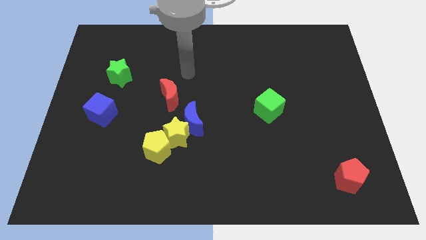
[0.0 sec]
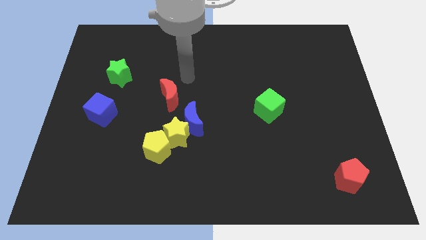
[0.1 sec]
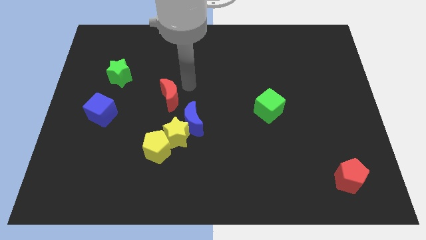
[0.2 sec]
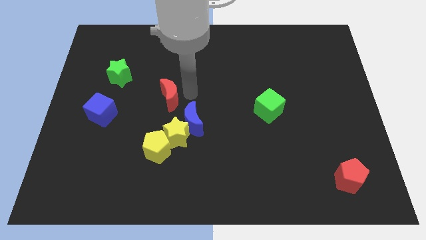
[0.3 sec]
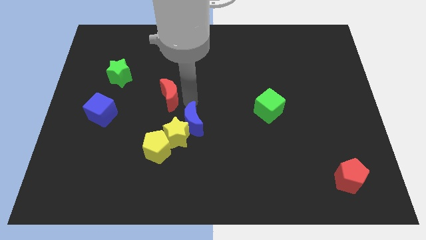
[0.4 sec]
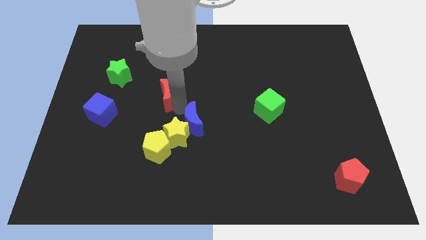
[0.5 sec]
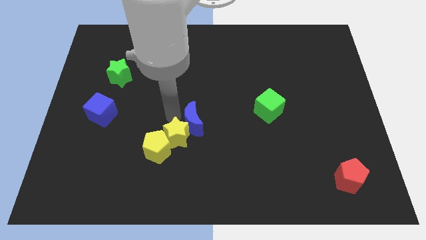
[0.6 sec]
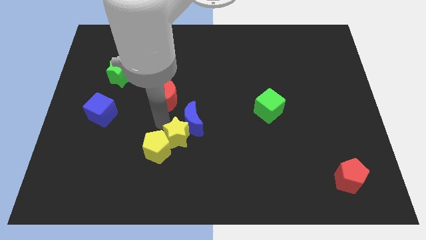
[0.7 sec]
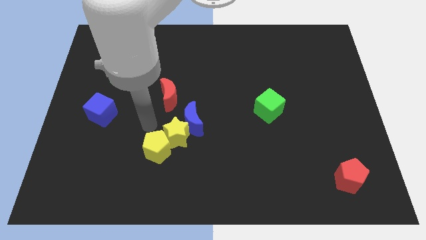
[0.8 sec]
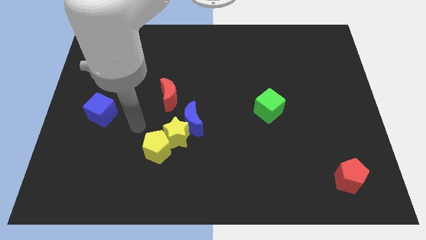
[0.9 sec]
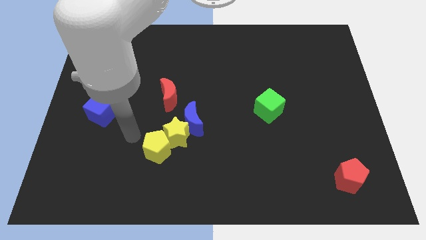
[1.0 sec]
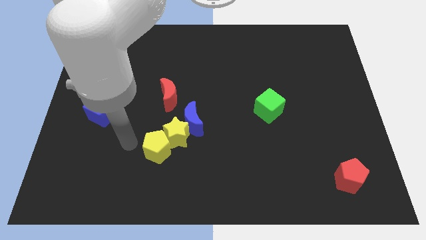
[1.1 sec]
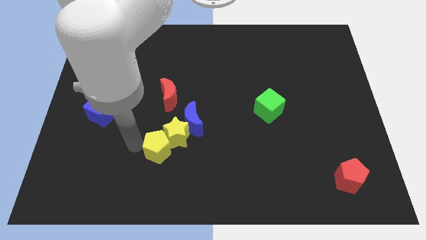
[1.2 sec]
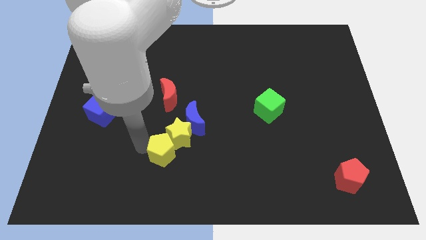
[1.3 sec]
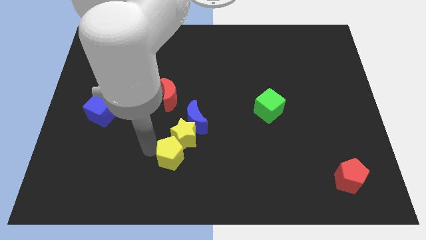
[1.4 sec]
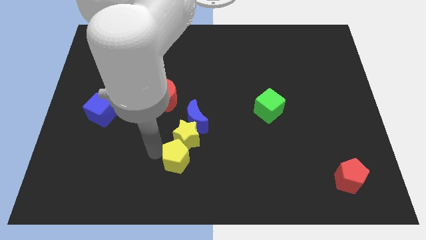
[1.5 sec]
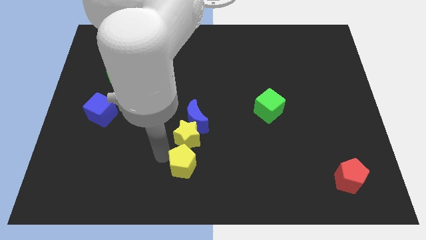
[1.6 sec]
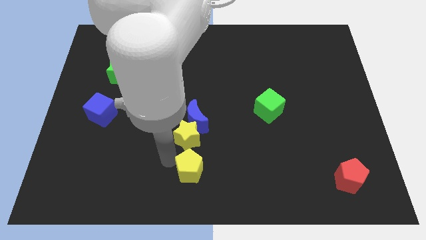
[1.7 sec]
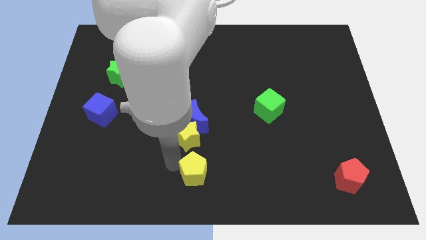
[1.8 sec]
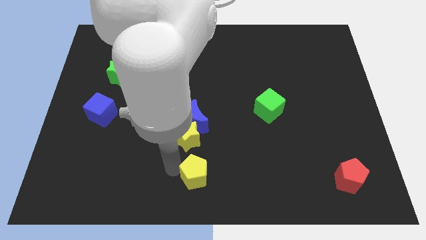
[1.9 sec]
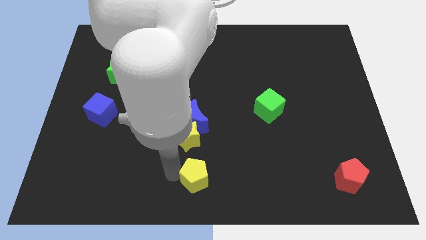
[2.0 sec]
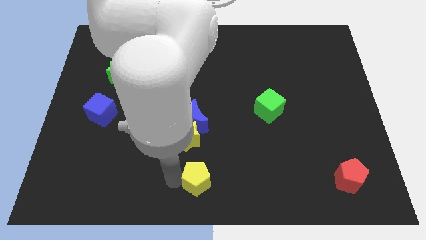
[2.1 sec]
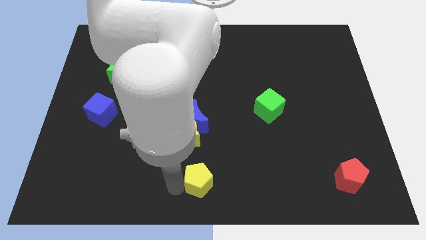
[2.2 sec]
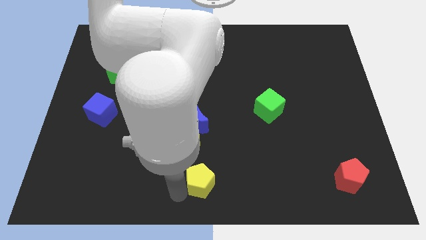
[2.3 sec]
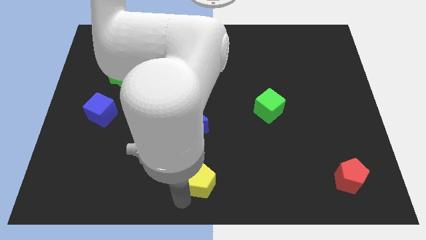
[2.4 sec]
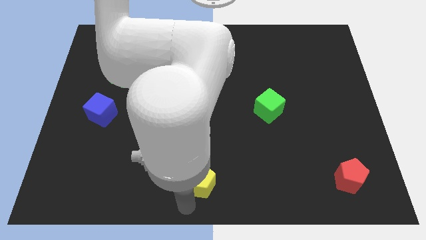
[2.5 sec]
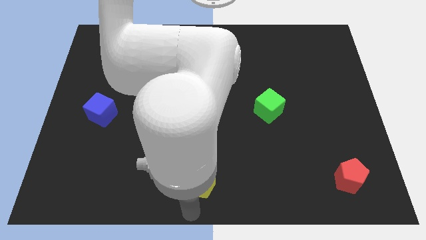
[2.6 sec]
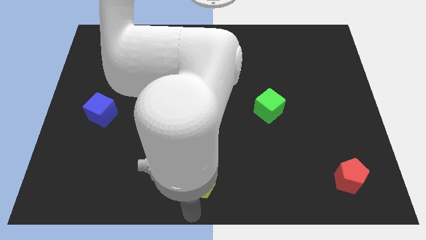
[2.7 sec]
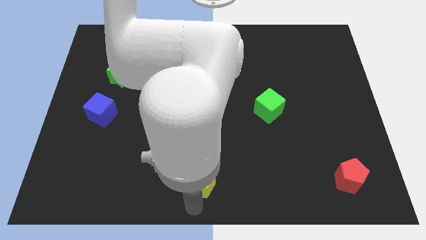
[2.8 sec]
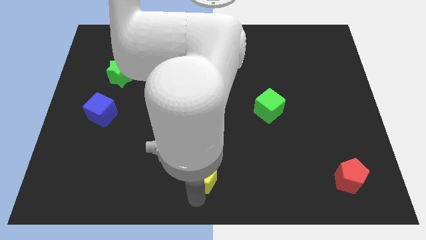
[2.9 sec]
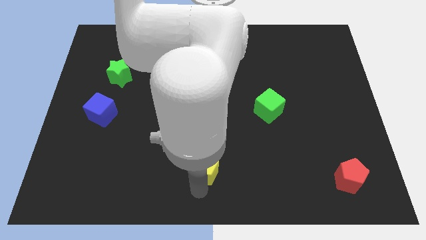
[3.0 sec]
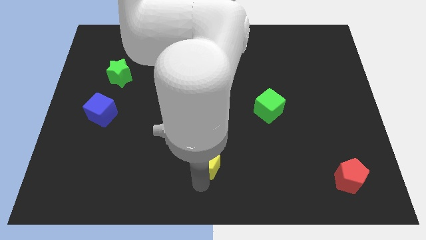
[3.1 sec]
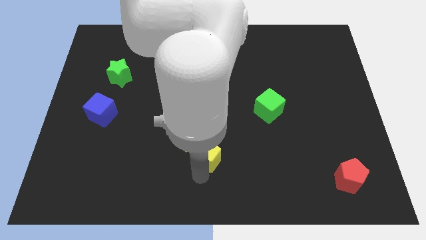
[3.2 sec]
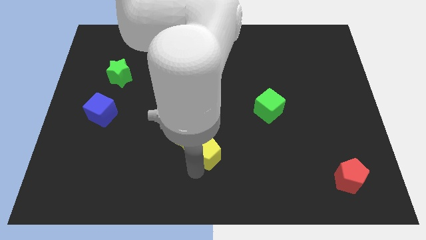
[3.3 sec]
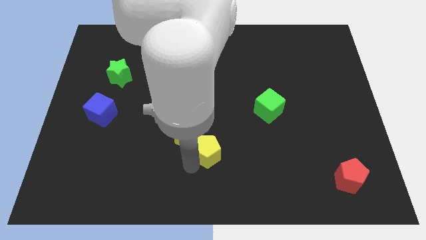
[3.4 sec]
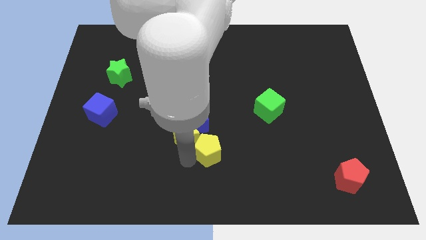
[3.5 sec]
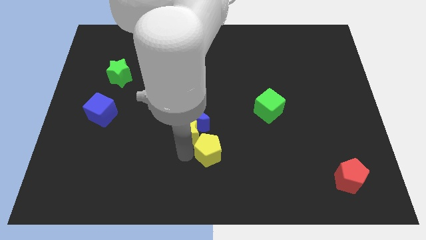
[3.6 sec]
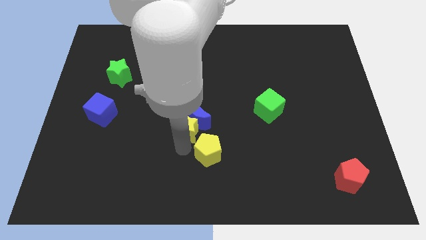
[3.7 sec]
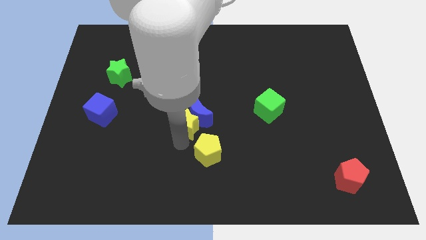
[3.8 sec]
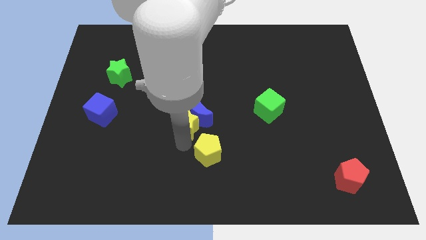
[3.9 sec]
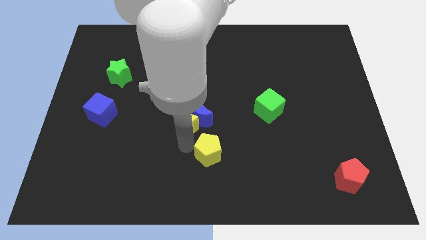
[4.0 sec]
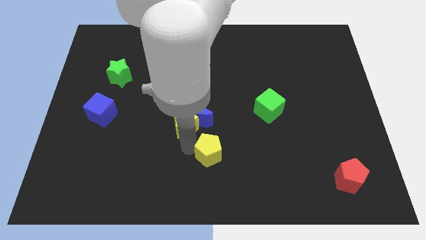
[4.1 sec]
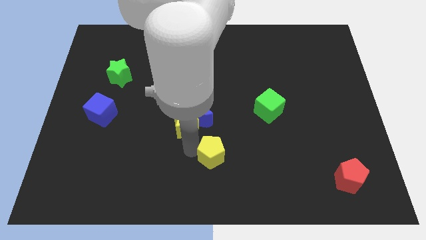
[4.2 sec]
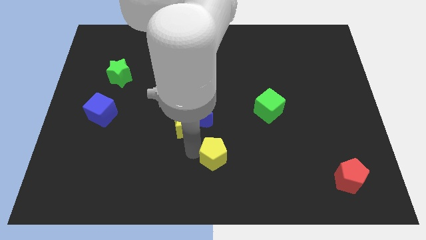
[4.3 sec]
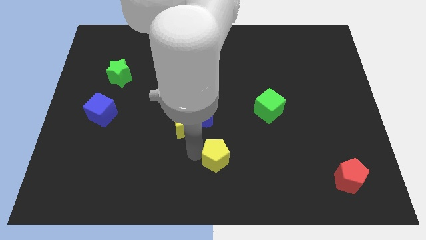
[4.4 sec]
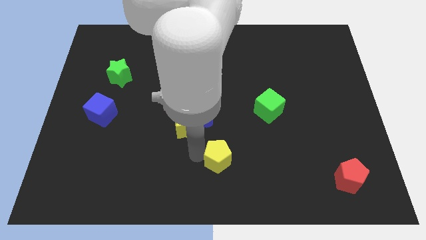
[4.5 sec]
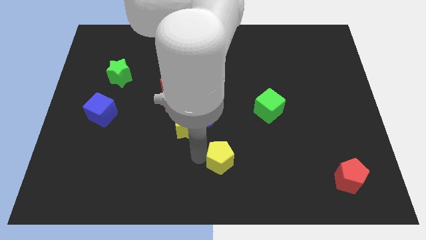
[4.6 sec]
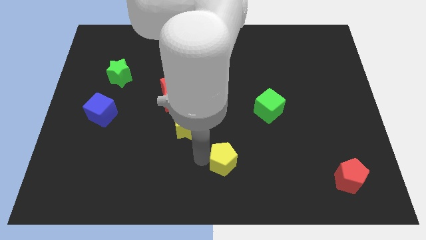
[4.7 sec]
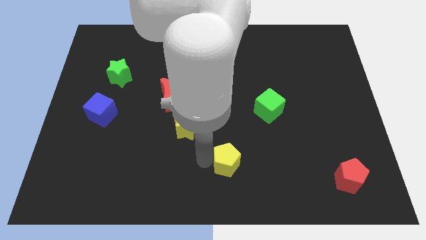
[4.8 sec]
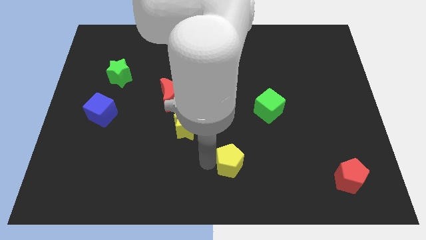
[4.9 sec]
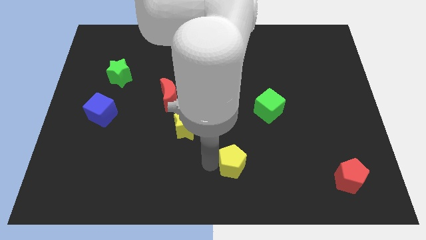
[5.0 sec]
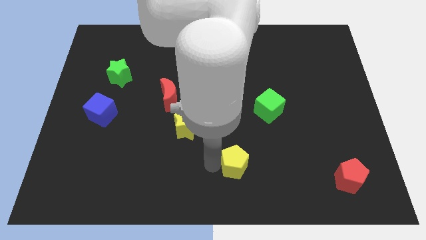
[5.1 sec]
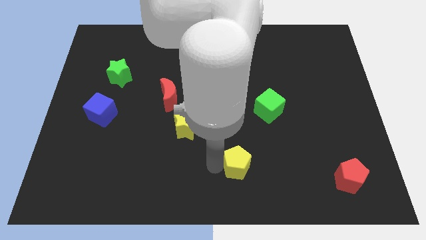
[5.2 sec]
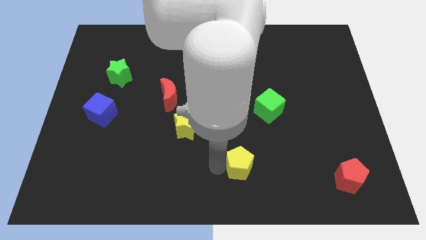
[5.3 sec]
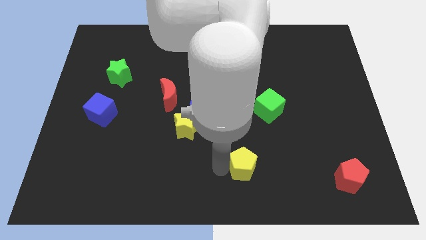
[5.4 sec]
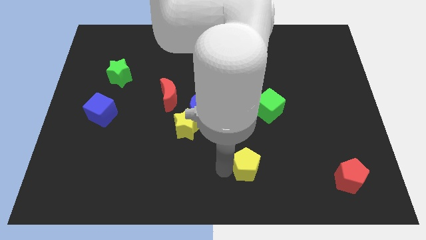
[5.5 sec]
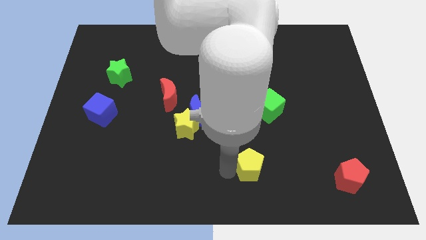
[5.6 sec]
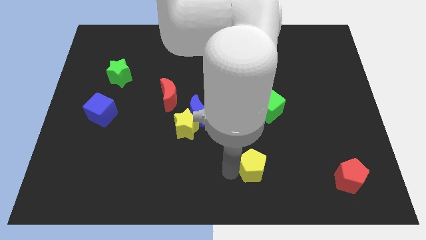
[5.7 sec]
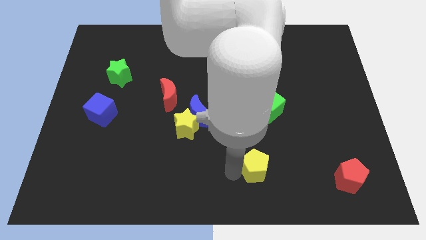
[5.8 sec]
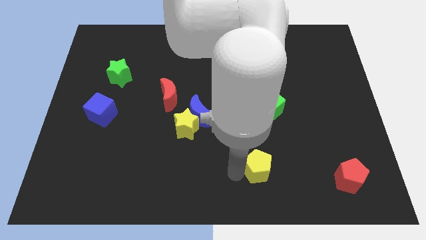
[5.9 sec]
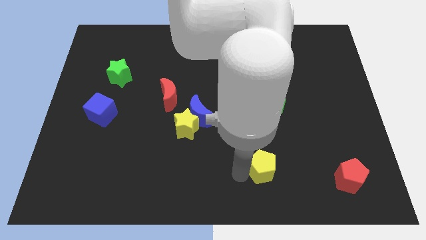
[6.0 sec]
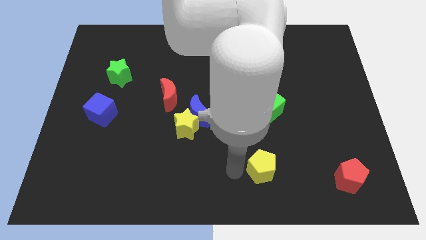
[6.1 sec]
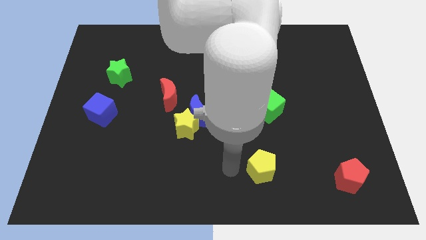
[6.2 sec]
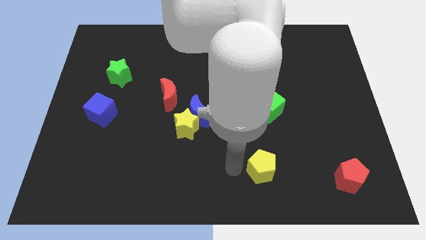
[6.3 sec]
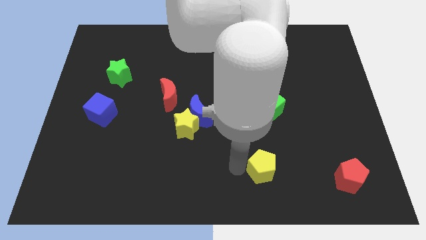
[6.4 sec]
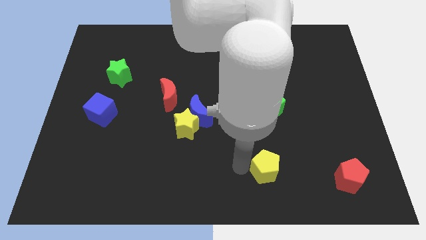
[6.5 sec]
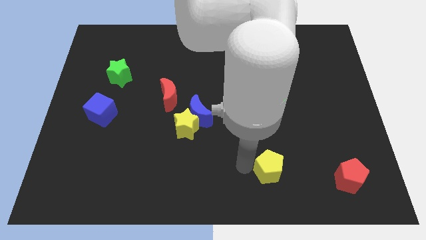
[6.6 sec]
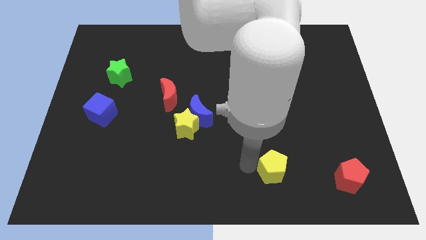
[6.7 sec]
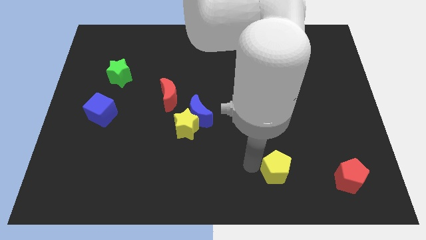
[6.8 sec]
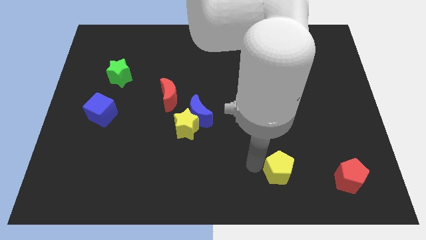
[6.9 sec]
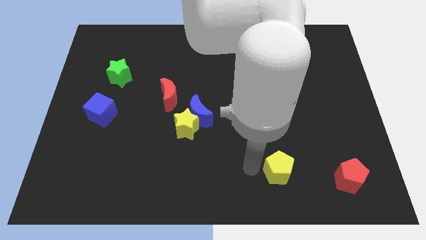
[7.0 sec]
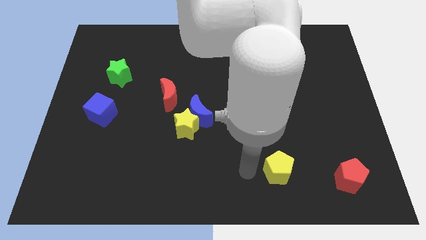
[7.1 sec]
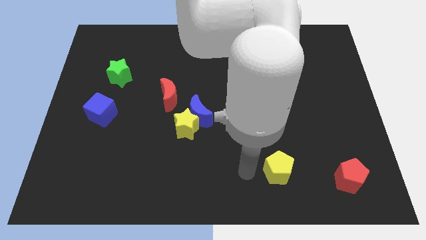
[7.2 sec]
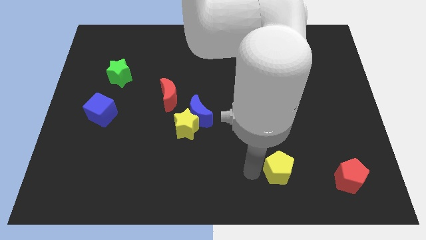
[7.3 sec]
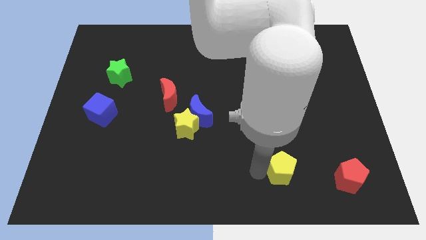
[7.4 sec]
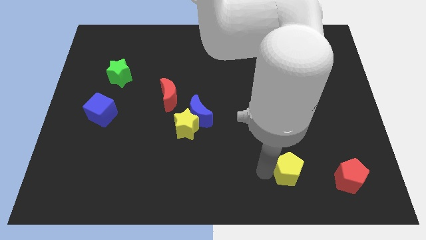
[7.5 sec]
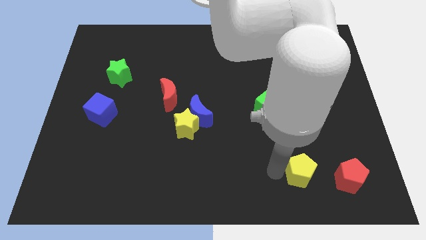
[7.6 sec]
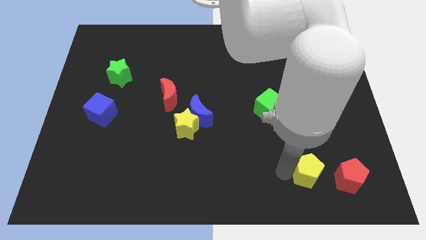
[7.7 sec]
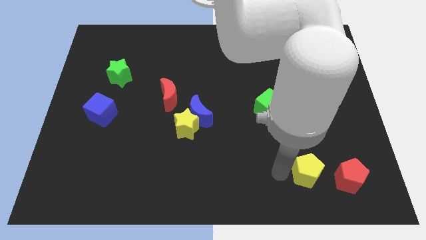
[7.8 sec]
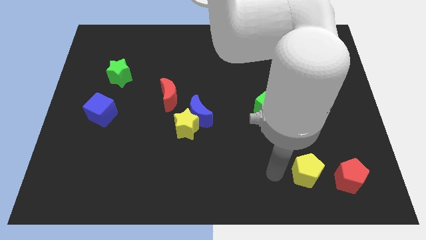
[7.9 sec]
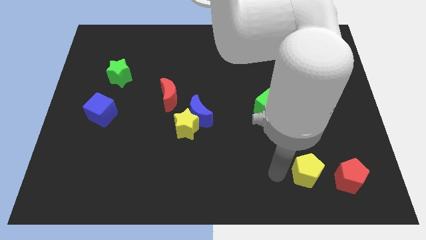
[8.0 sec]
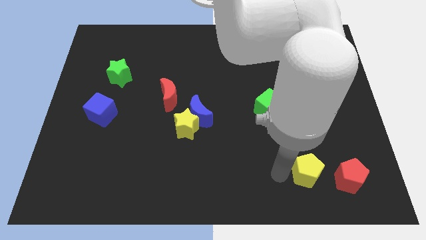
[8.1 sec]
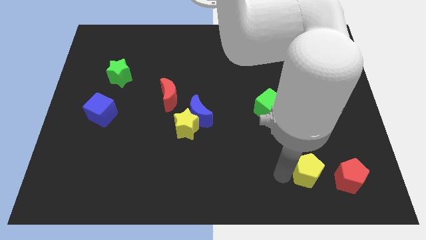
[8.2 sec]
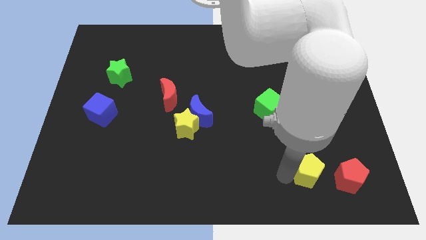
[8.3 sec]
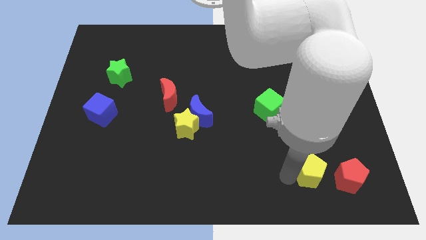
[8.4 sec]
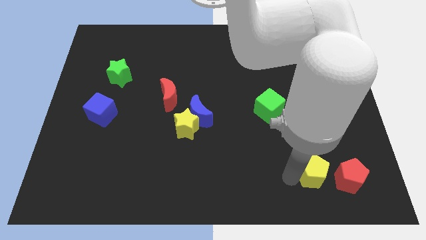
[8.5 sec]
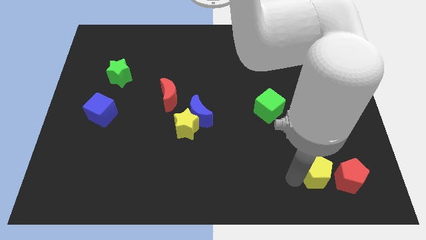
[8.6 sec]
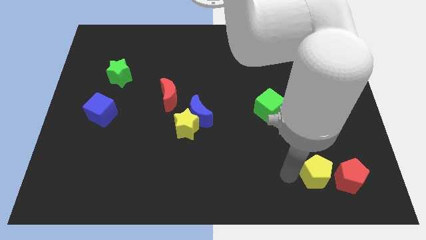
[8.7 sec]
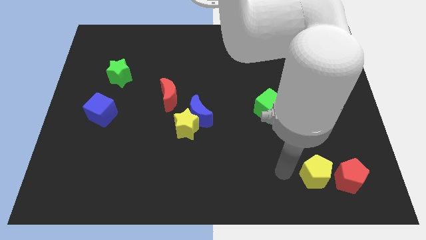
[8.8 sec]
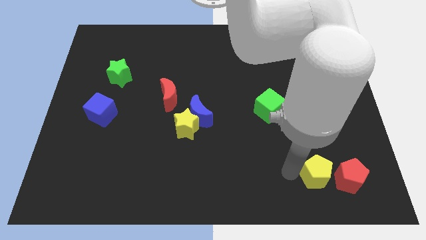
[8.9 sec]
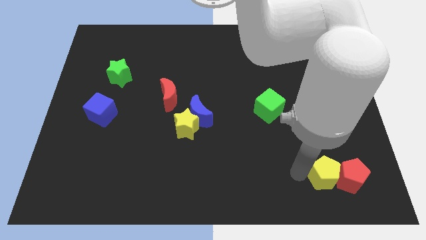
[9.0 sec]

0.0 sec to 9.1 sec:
move the yellow pentagon to the red pentagon
